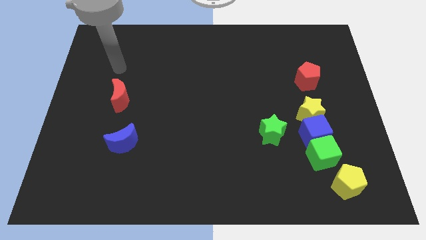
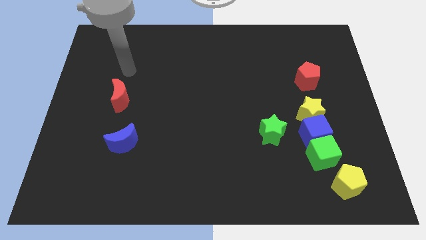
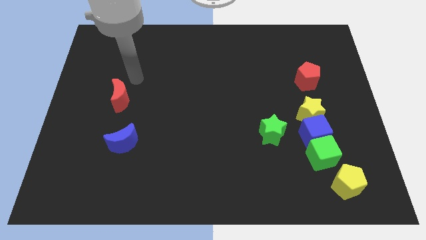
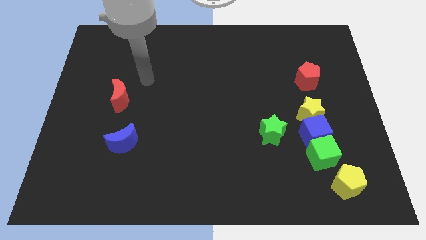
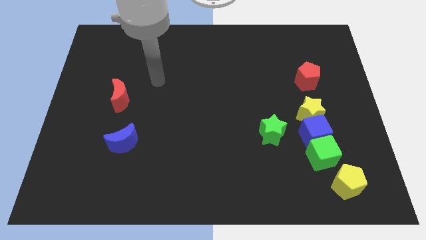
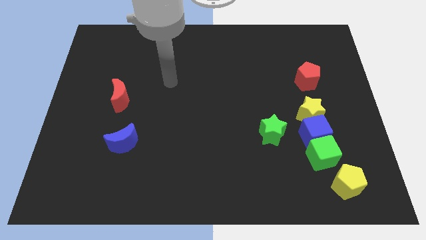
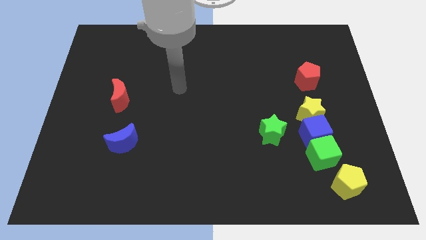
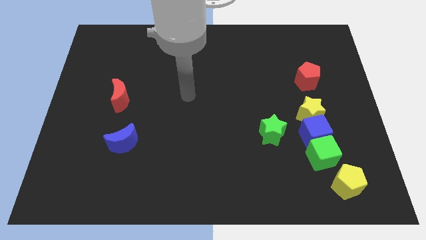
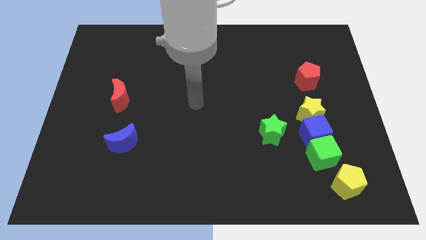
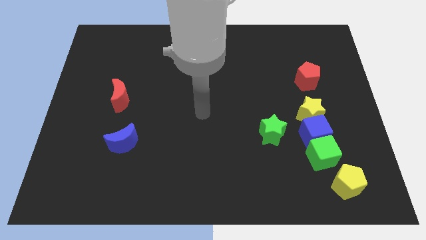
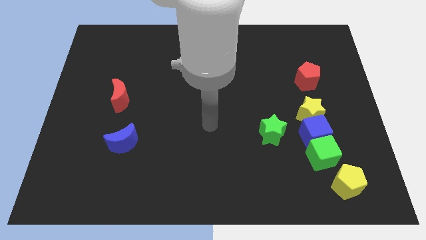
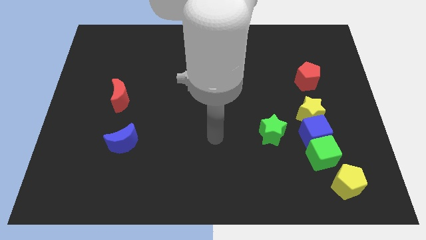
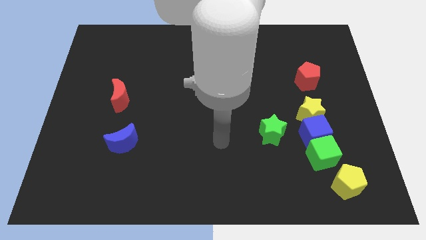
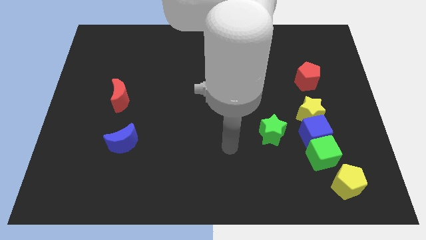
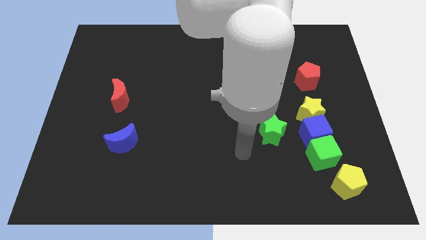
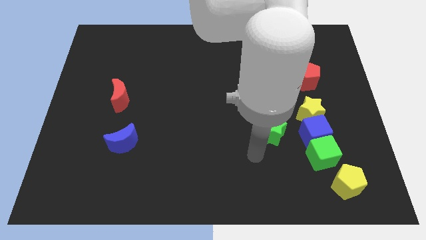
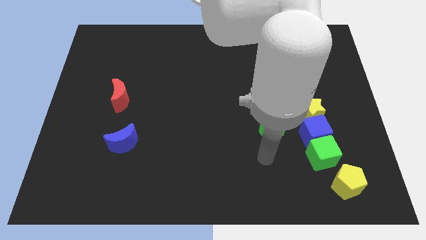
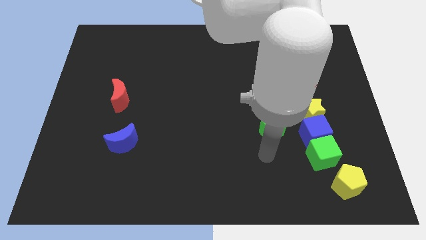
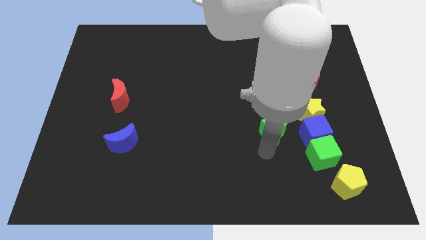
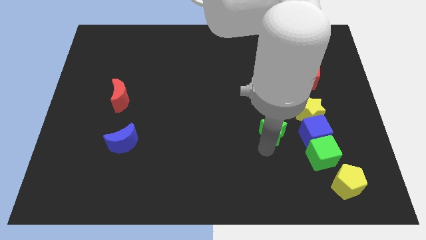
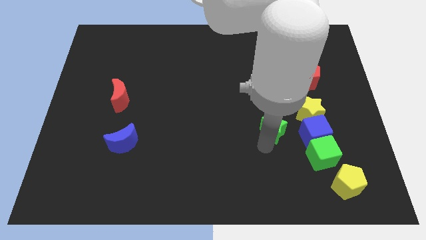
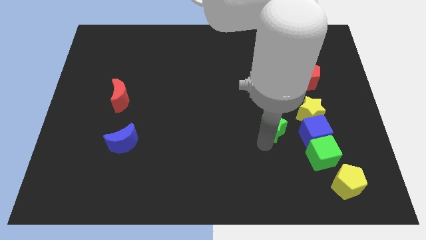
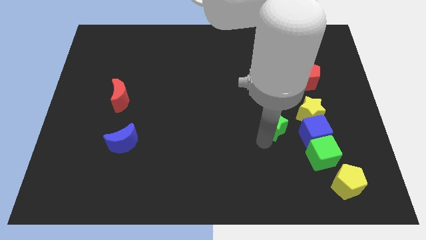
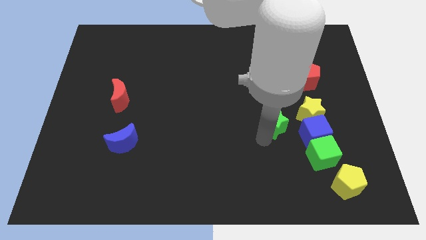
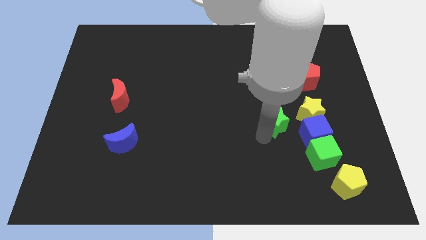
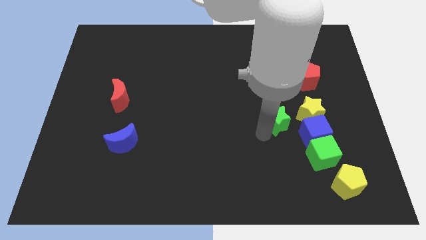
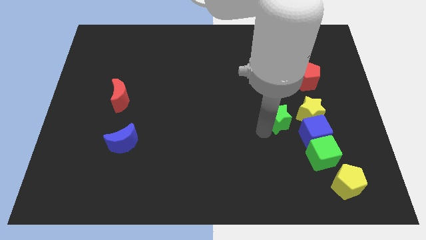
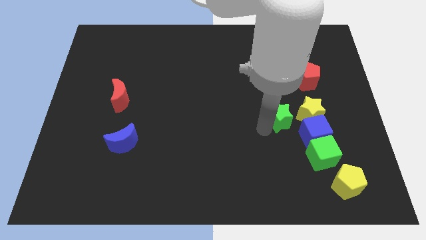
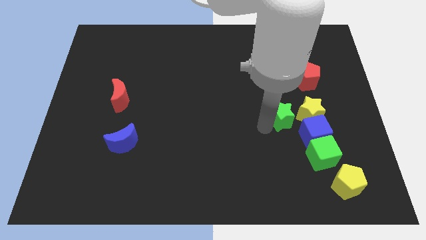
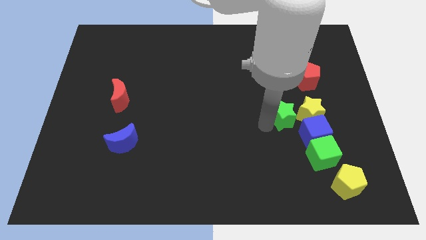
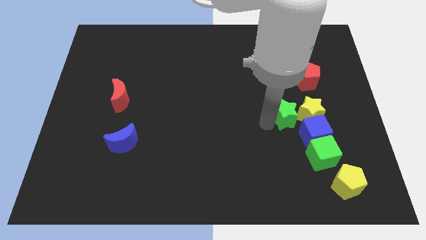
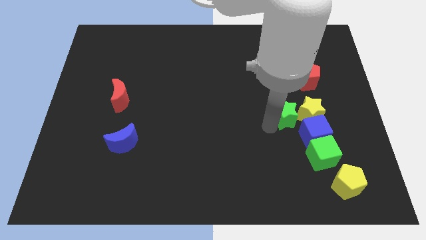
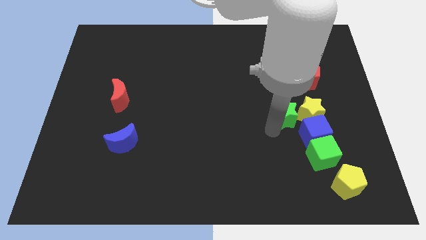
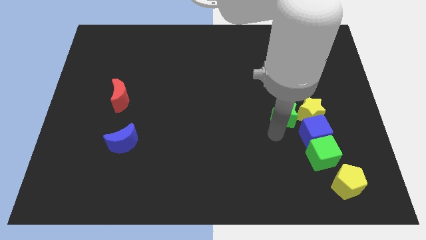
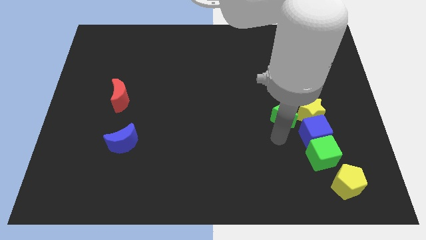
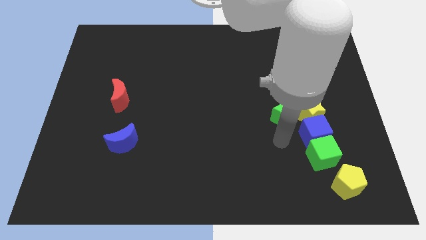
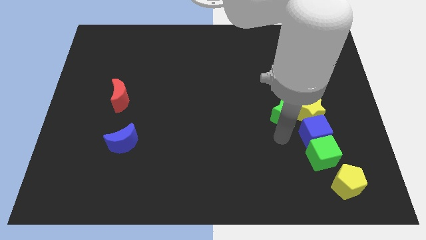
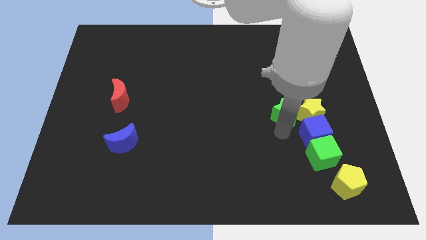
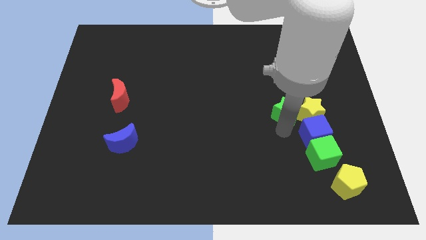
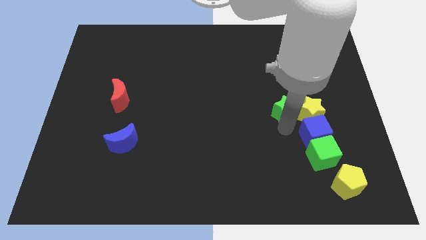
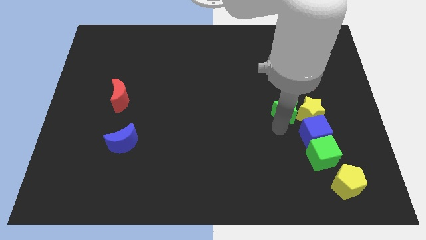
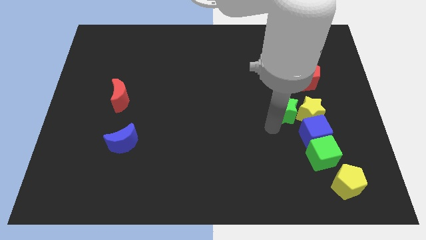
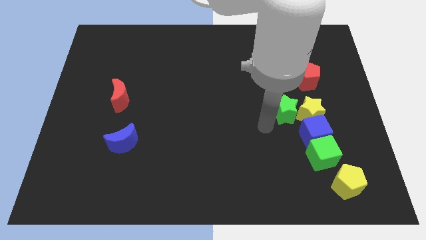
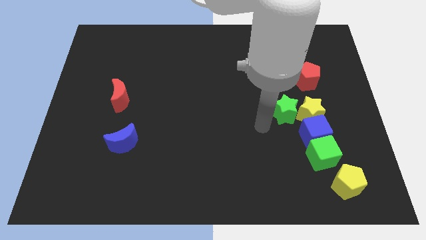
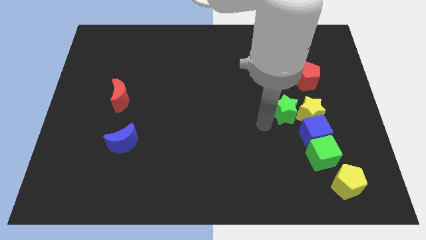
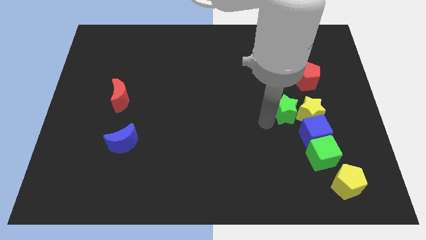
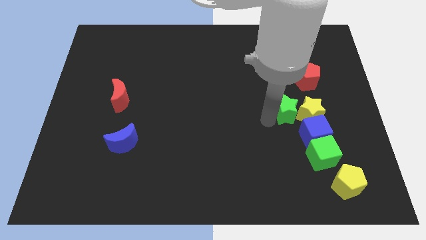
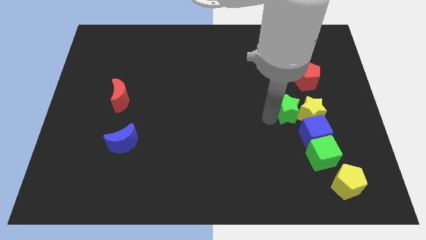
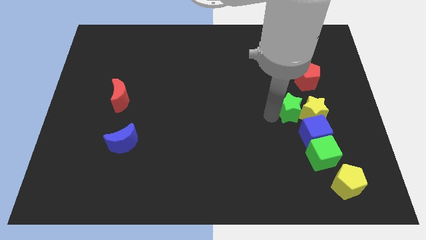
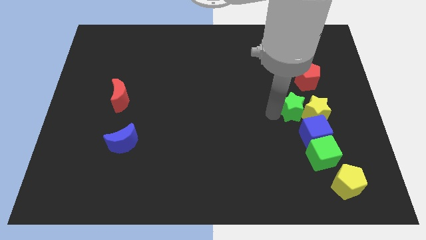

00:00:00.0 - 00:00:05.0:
put the green star to the top side of the green cube

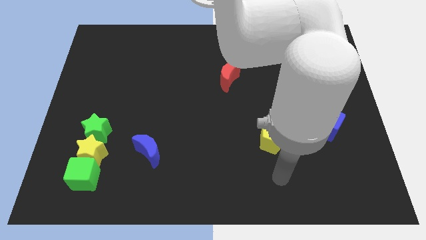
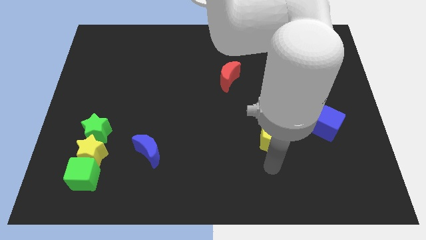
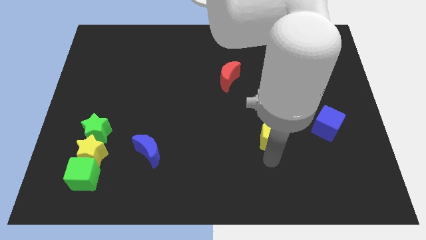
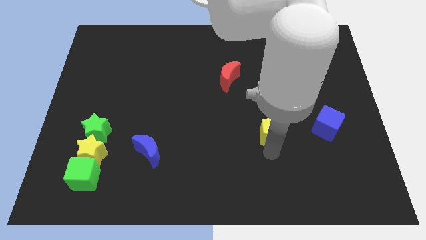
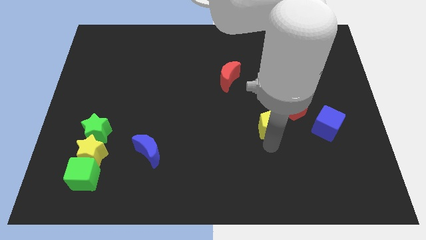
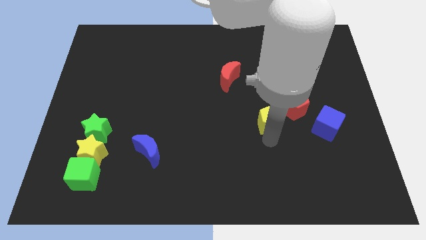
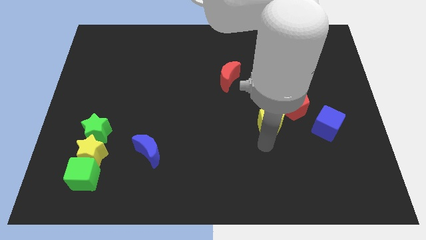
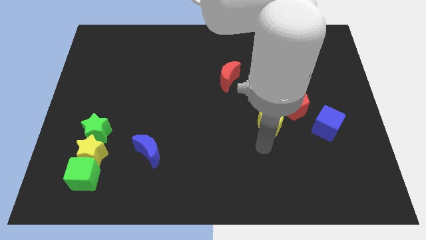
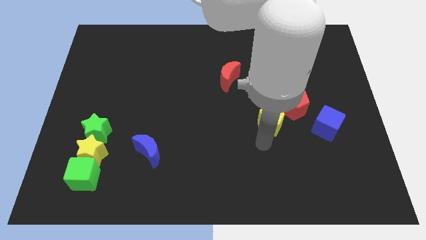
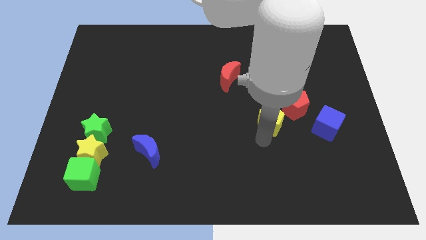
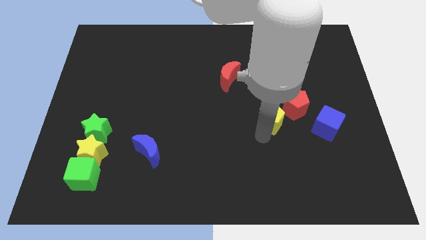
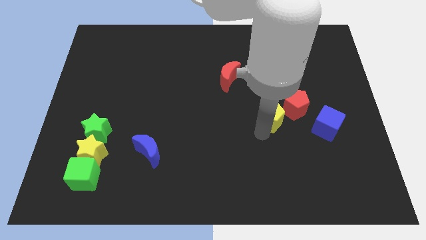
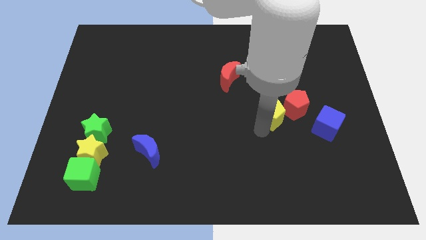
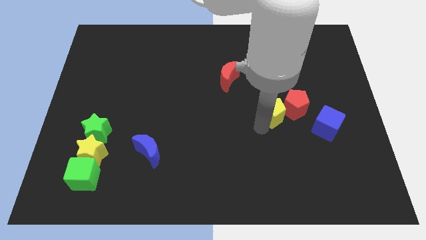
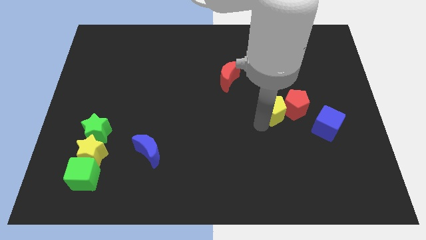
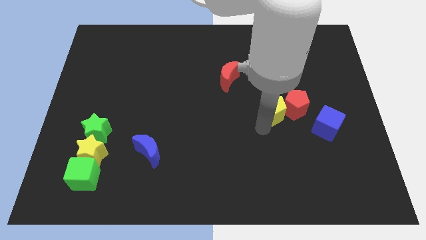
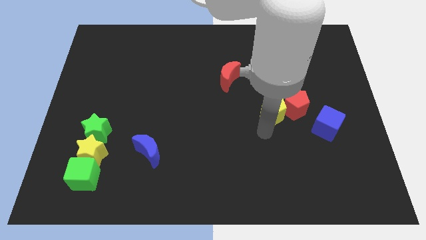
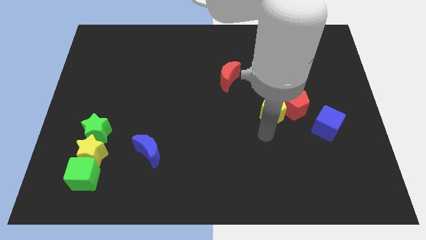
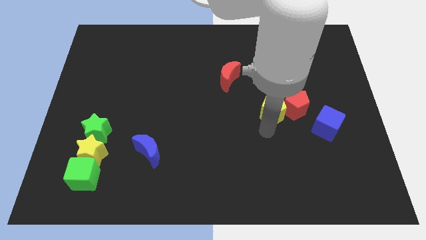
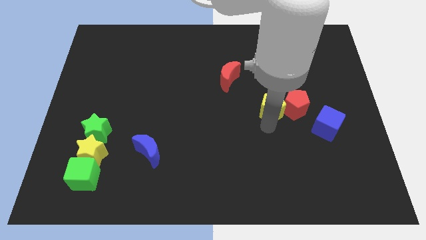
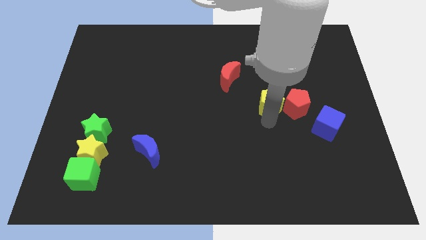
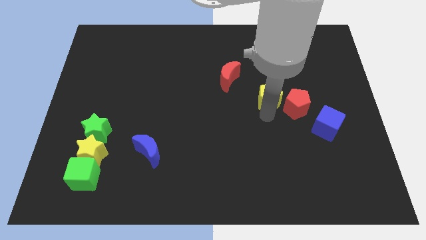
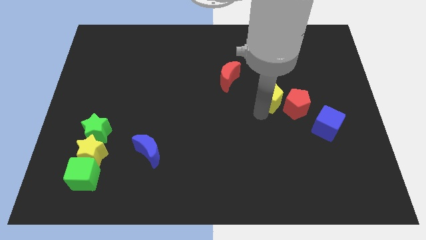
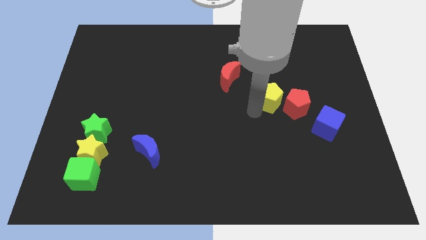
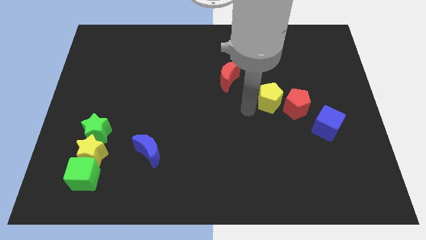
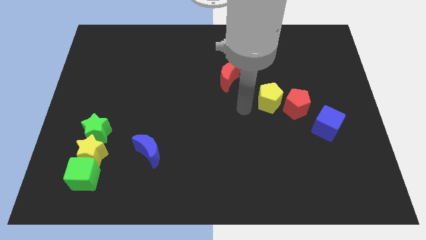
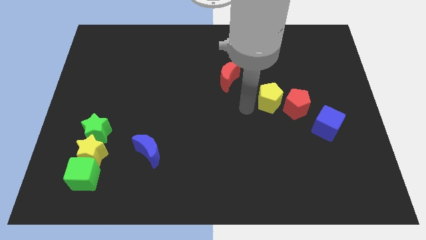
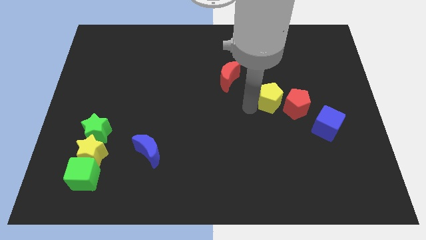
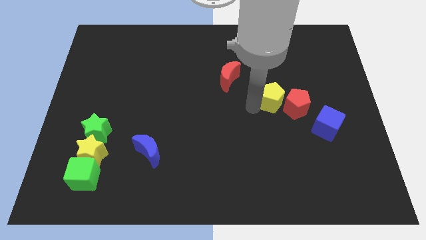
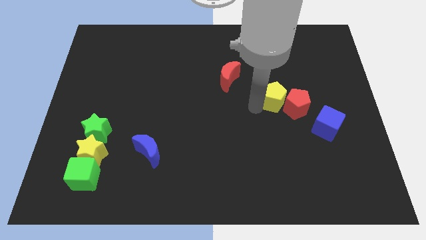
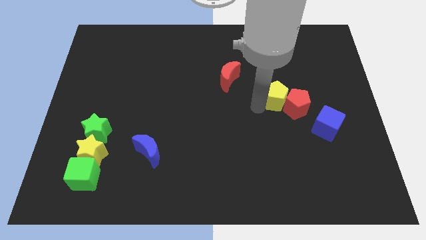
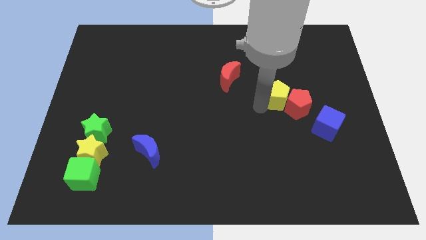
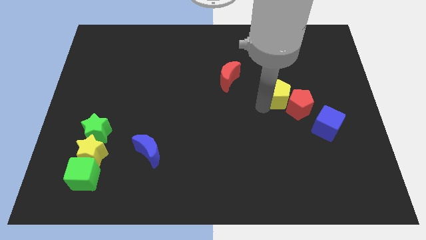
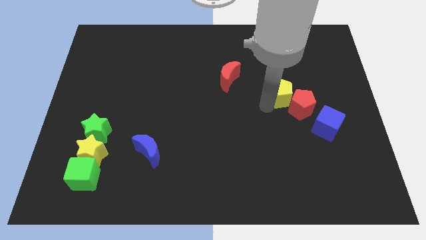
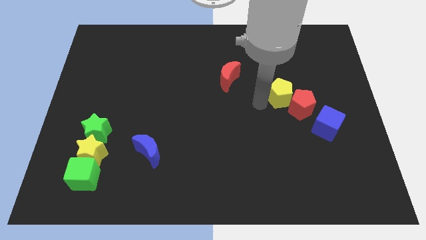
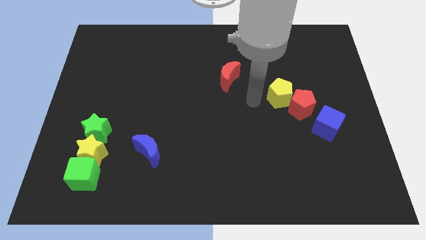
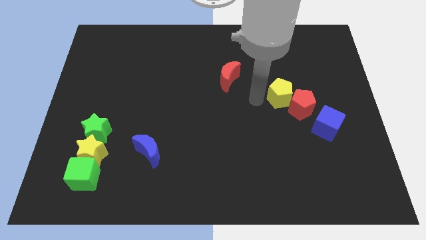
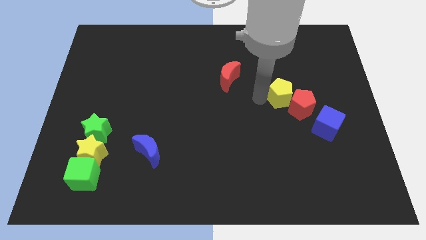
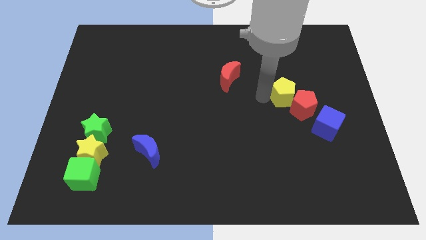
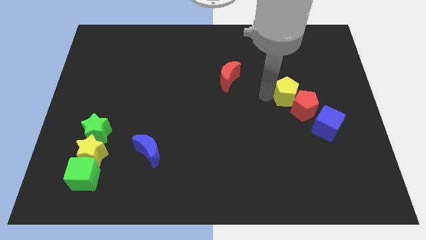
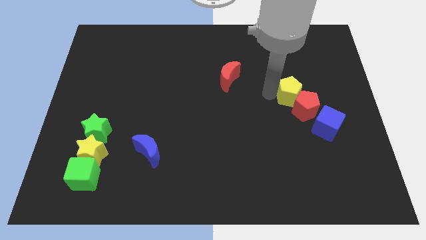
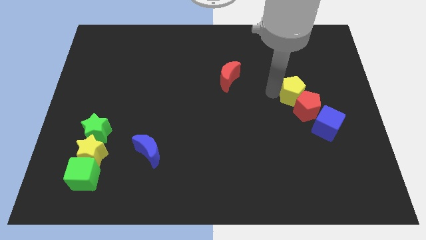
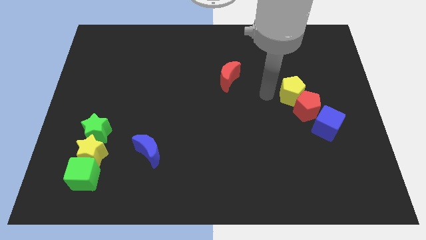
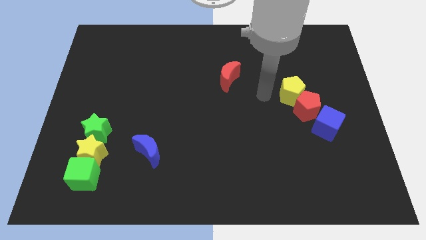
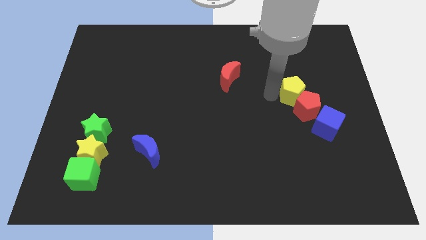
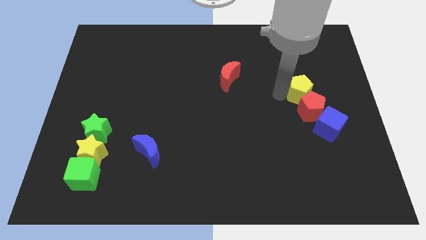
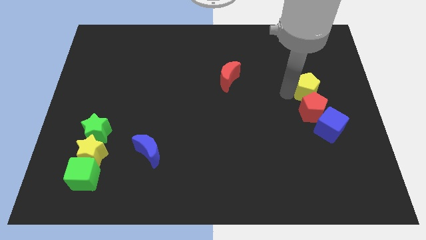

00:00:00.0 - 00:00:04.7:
push the yellow pentagon diagonally up and to the right of the red pentagon
